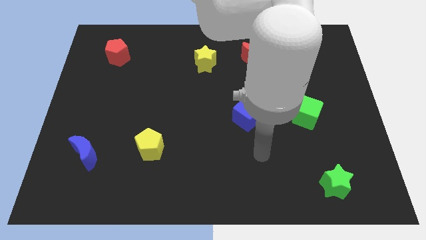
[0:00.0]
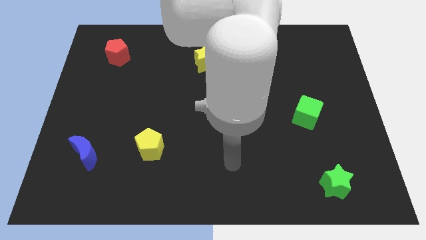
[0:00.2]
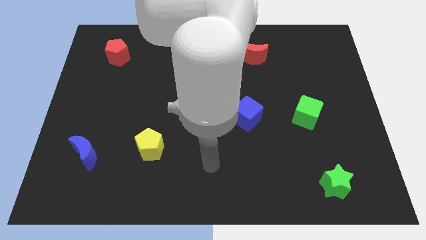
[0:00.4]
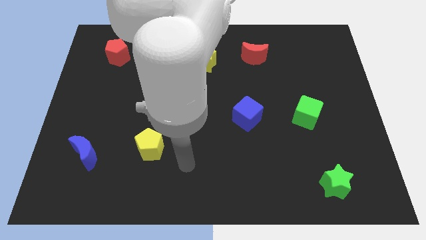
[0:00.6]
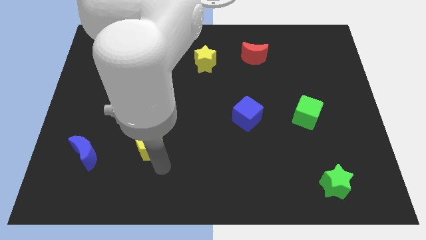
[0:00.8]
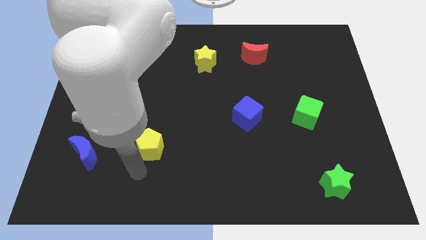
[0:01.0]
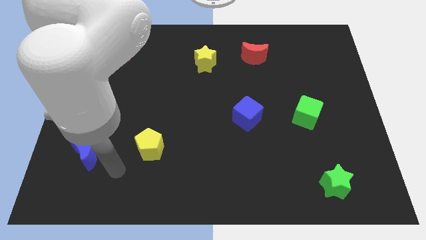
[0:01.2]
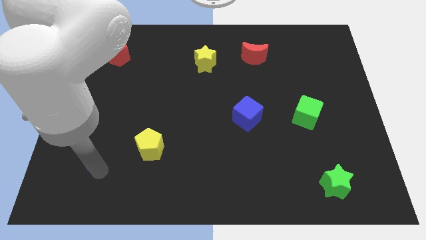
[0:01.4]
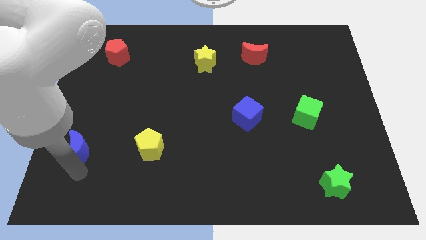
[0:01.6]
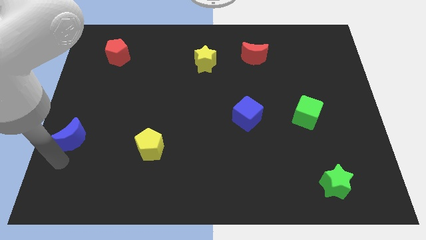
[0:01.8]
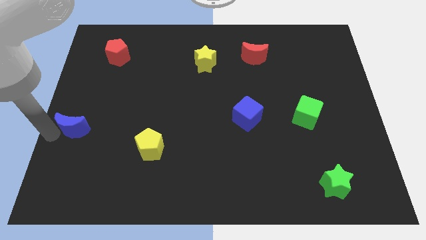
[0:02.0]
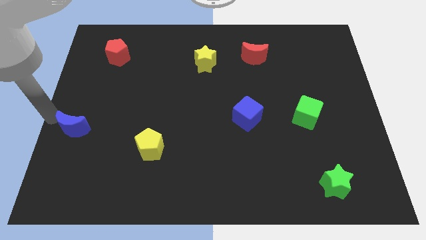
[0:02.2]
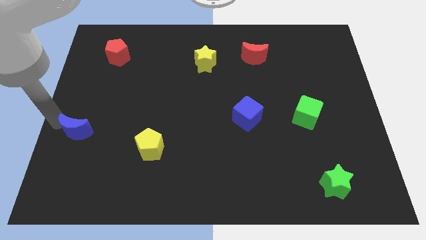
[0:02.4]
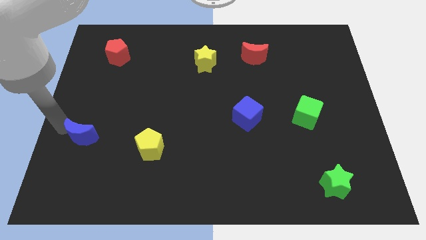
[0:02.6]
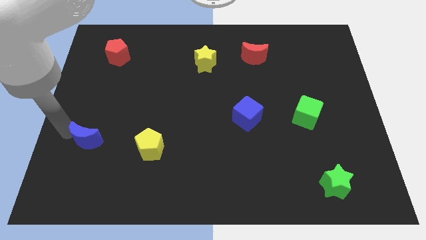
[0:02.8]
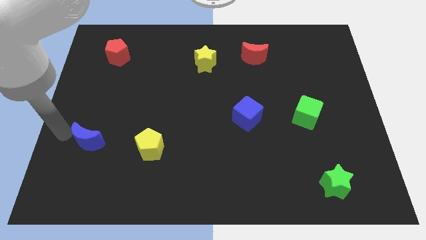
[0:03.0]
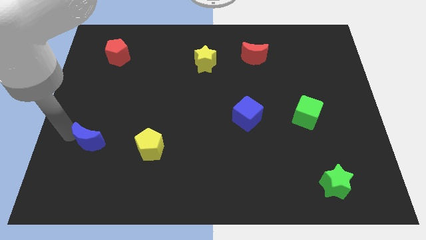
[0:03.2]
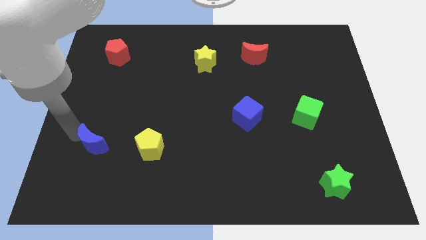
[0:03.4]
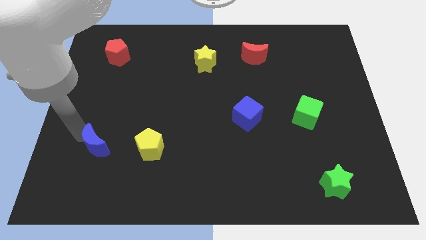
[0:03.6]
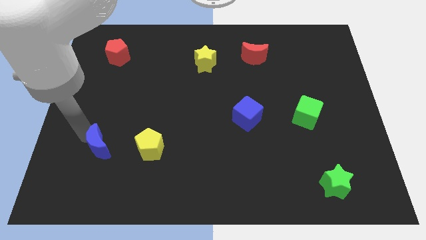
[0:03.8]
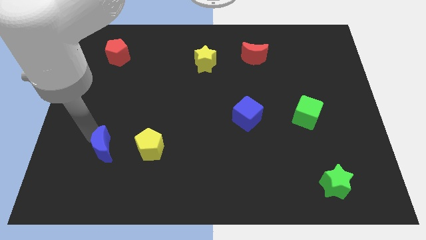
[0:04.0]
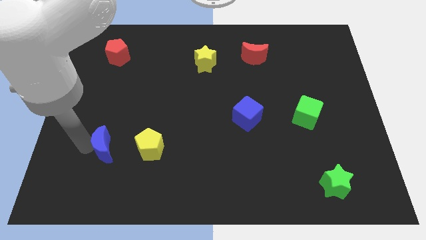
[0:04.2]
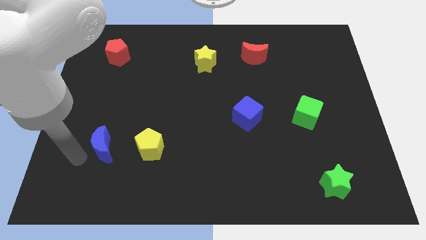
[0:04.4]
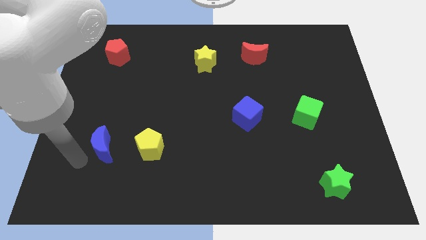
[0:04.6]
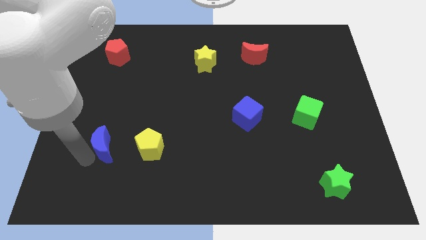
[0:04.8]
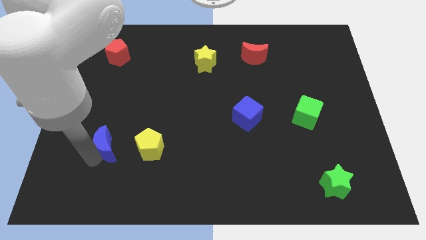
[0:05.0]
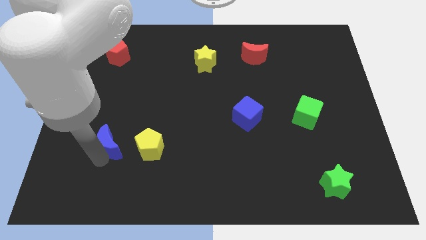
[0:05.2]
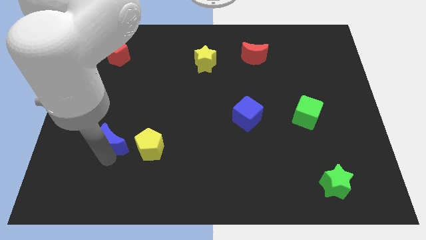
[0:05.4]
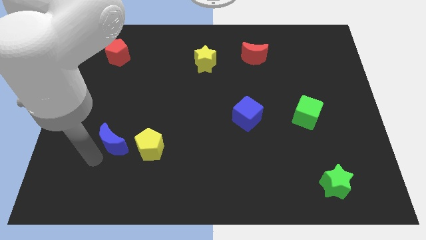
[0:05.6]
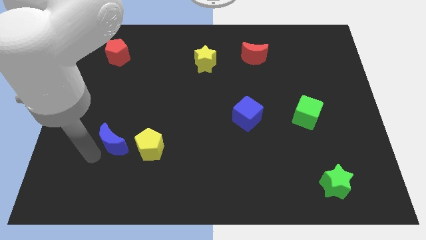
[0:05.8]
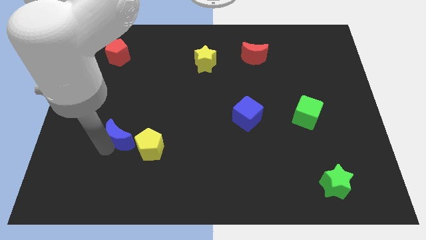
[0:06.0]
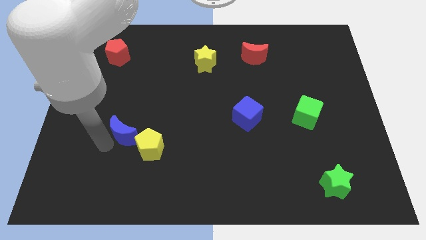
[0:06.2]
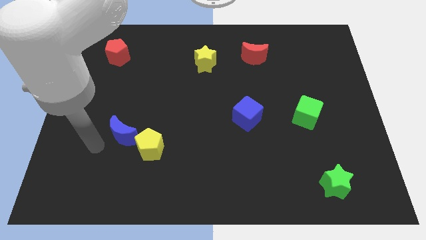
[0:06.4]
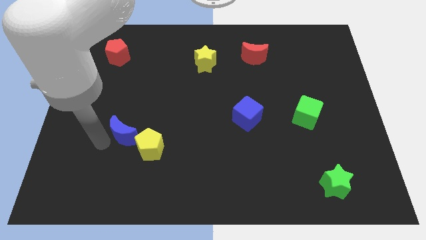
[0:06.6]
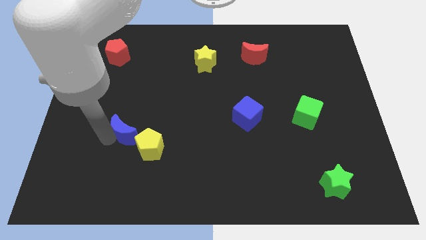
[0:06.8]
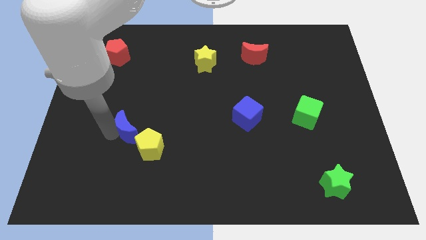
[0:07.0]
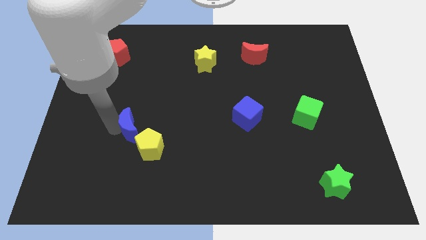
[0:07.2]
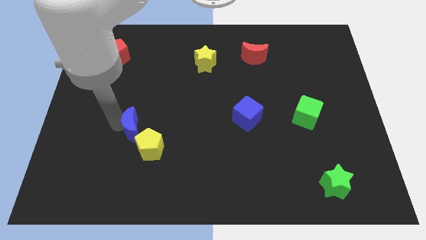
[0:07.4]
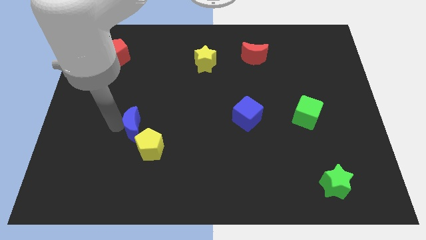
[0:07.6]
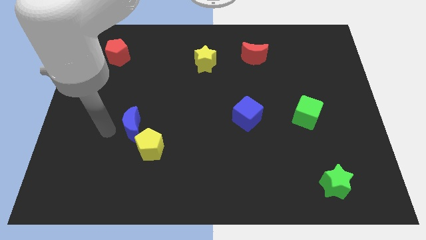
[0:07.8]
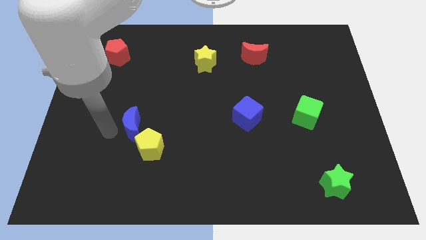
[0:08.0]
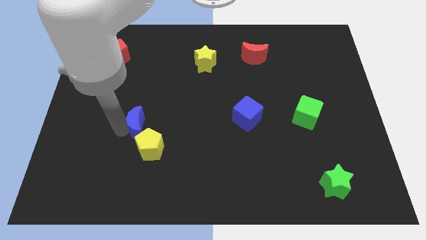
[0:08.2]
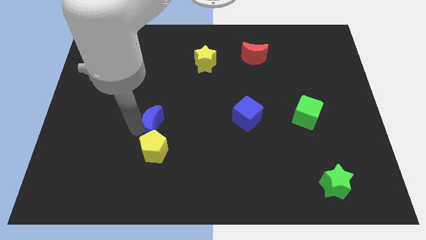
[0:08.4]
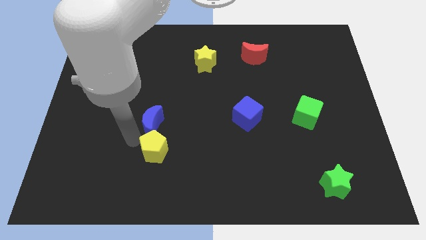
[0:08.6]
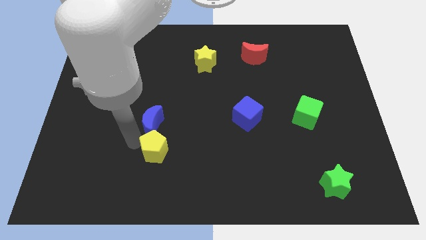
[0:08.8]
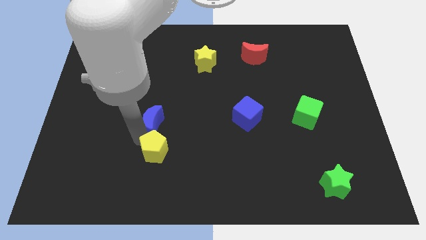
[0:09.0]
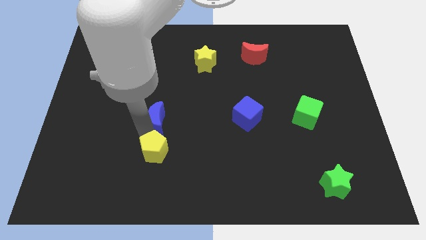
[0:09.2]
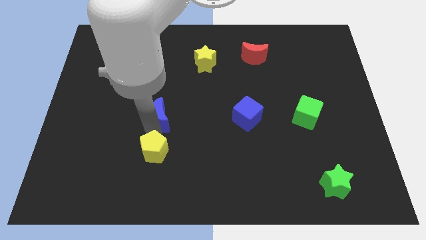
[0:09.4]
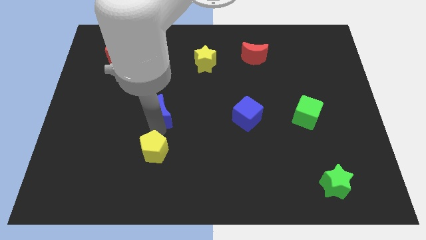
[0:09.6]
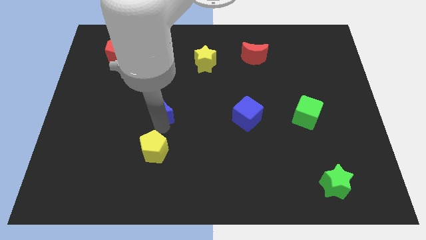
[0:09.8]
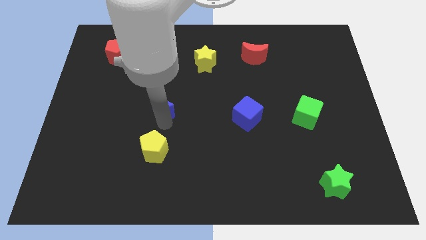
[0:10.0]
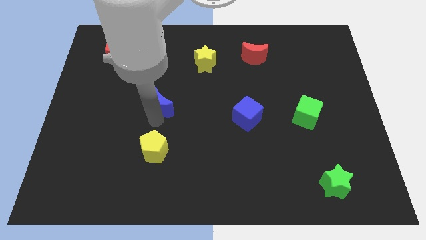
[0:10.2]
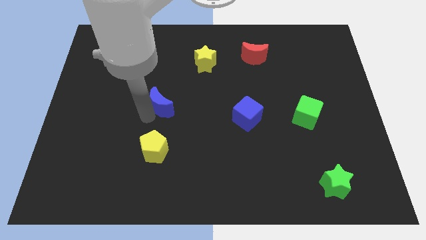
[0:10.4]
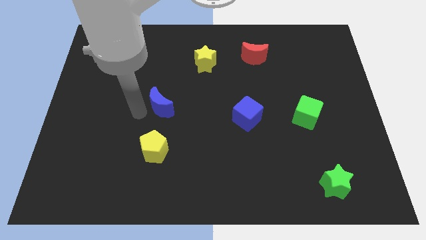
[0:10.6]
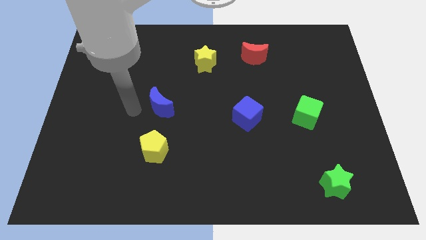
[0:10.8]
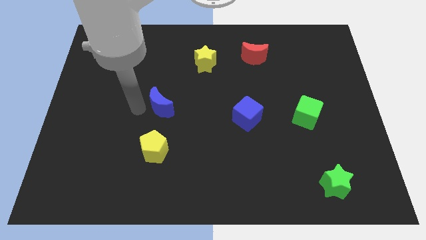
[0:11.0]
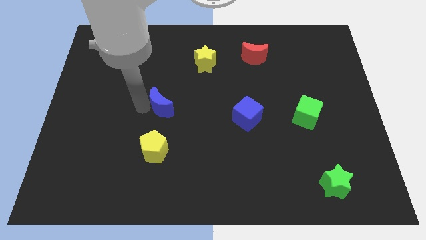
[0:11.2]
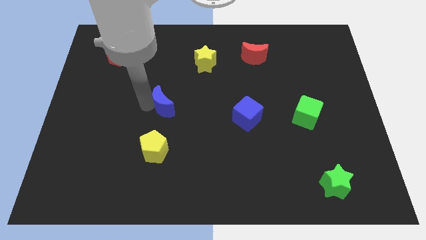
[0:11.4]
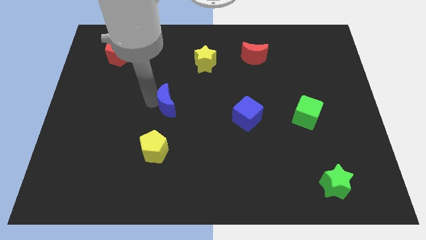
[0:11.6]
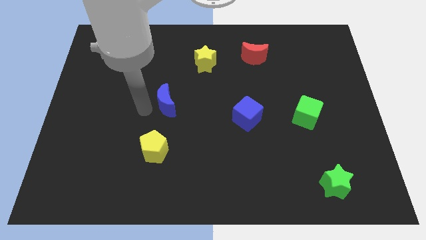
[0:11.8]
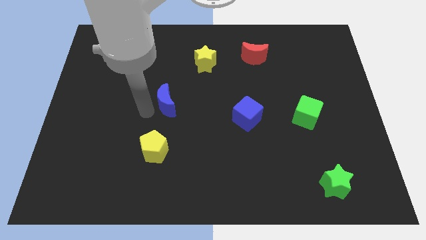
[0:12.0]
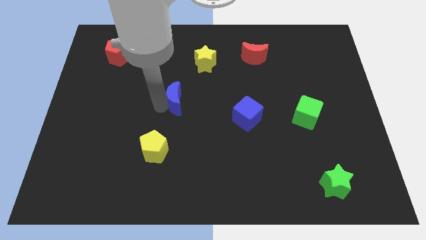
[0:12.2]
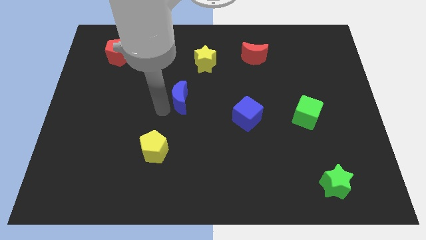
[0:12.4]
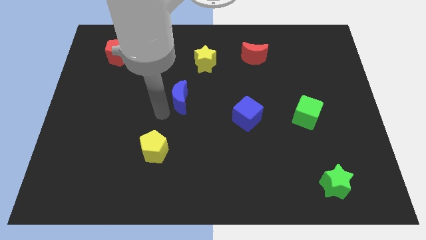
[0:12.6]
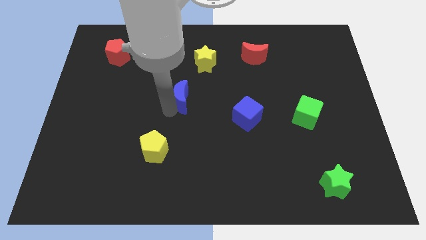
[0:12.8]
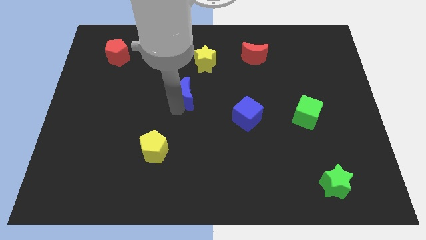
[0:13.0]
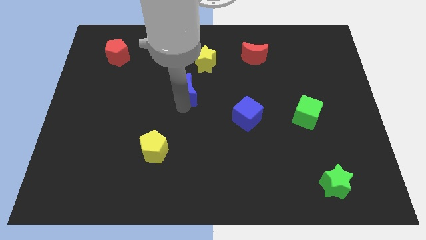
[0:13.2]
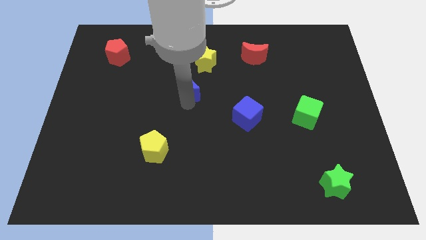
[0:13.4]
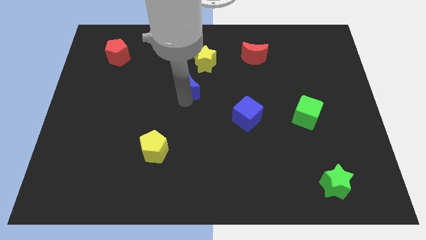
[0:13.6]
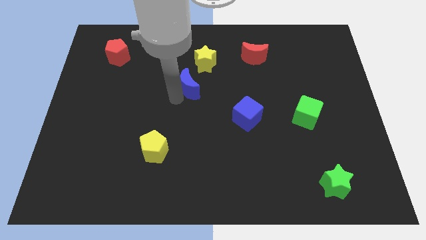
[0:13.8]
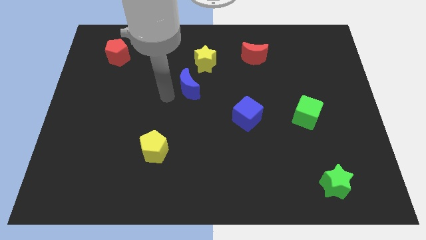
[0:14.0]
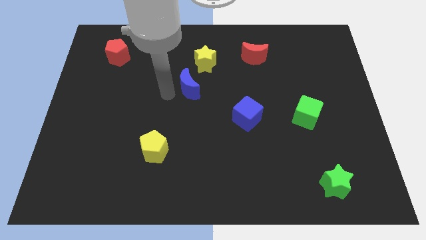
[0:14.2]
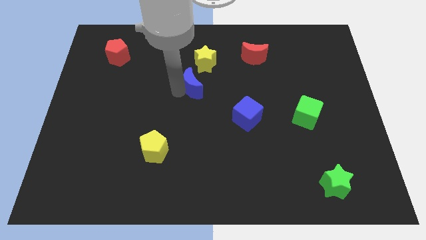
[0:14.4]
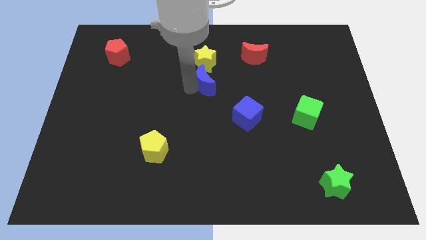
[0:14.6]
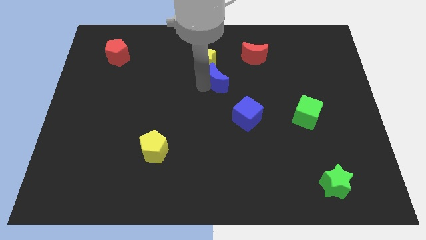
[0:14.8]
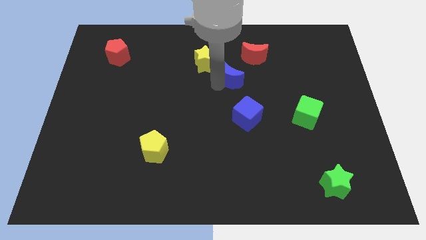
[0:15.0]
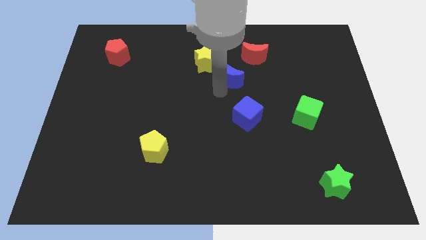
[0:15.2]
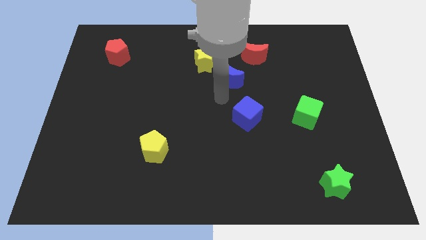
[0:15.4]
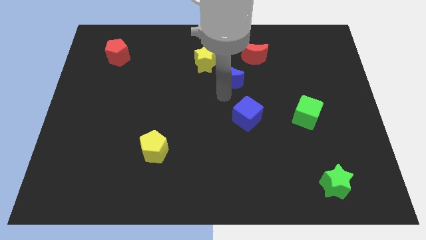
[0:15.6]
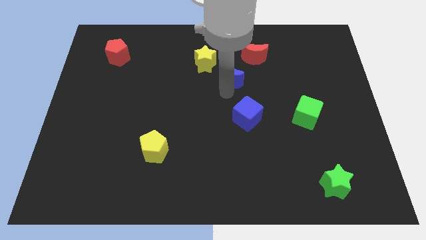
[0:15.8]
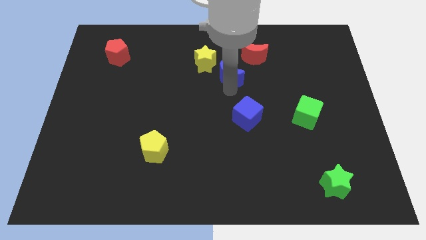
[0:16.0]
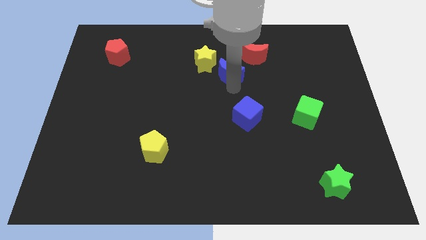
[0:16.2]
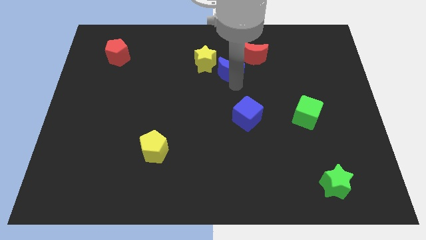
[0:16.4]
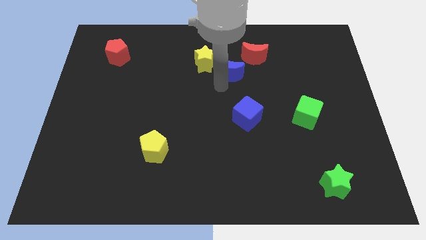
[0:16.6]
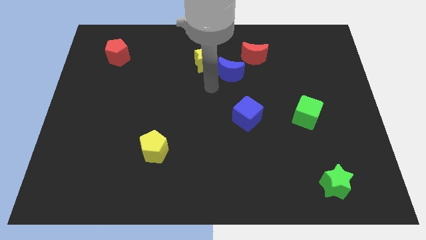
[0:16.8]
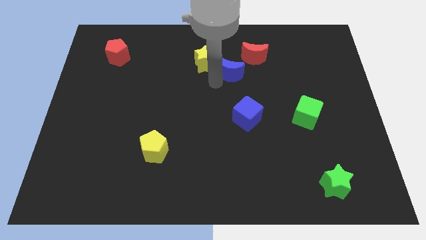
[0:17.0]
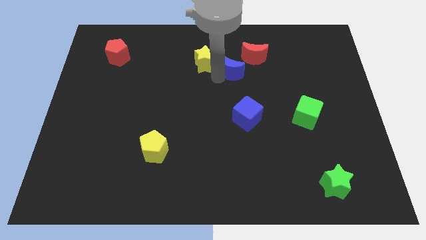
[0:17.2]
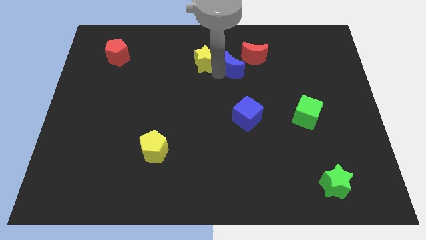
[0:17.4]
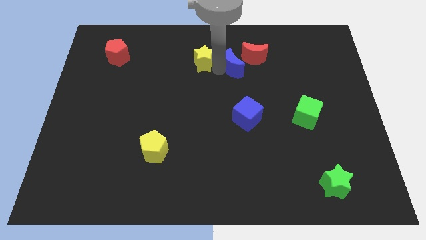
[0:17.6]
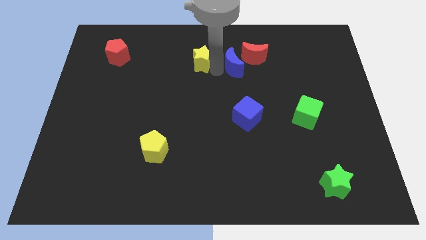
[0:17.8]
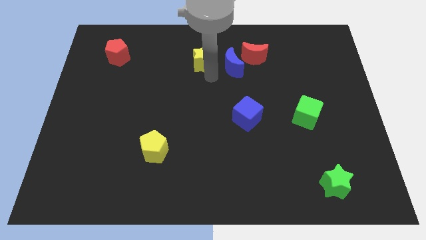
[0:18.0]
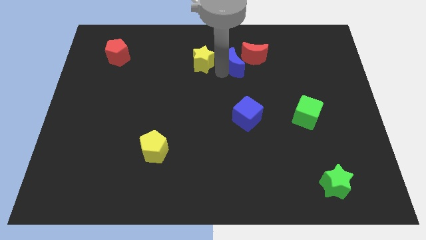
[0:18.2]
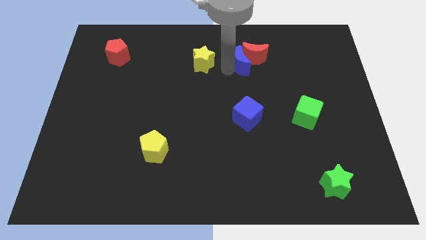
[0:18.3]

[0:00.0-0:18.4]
put the blue moon towards the red moon
